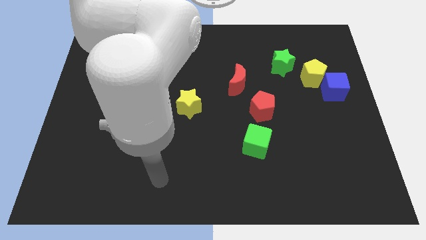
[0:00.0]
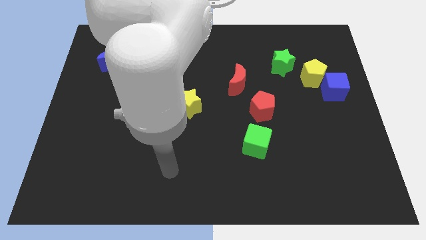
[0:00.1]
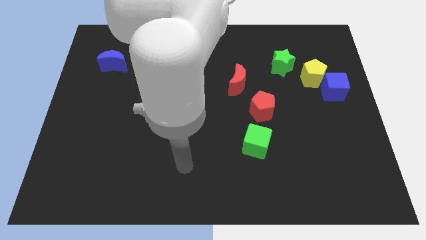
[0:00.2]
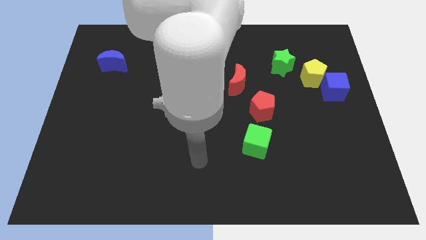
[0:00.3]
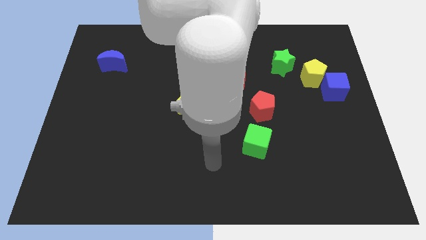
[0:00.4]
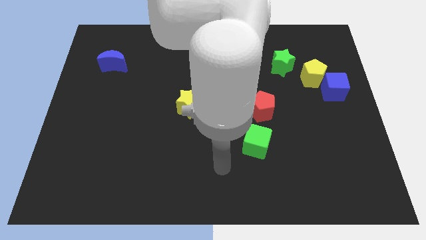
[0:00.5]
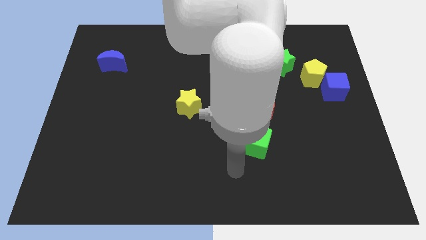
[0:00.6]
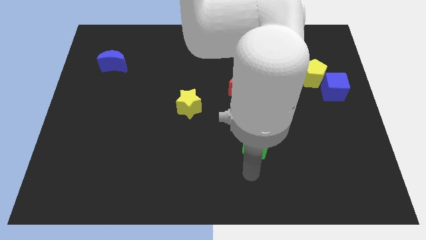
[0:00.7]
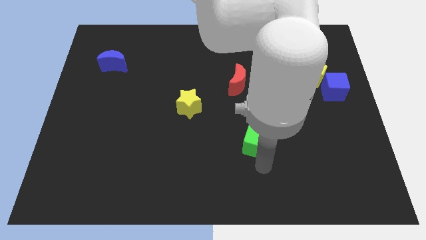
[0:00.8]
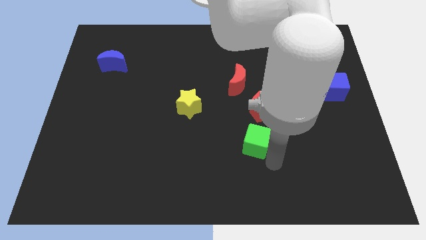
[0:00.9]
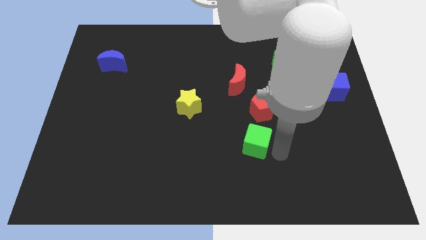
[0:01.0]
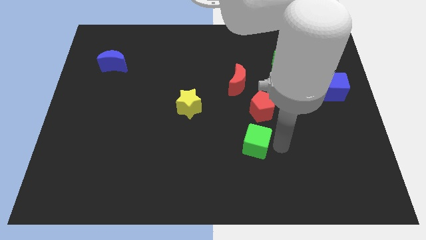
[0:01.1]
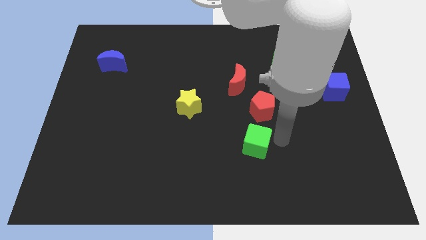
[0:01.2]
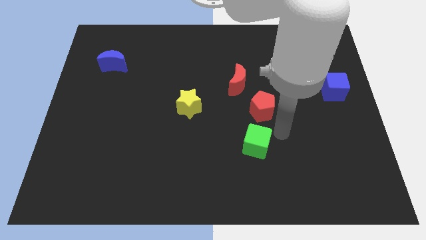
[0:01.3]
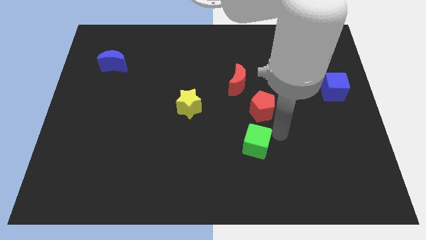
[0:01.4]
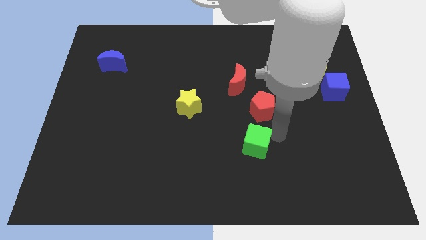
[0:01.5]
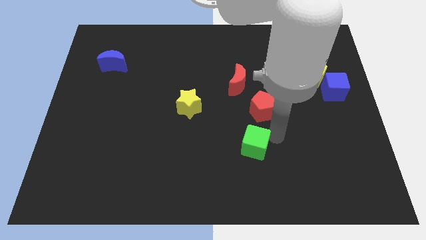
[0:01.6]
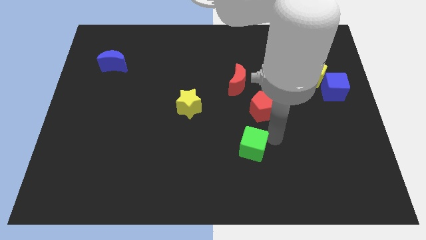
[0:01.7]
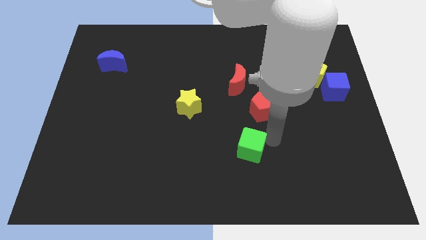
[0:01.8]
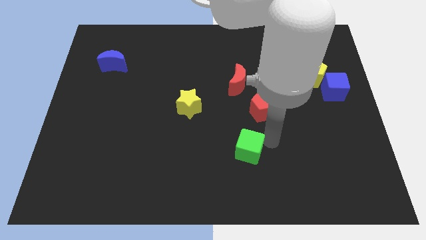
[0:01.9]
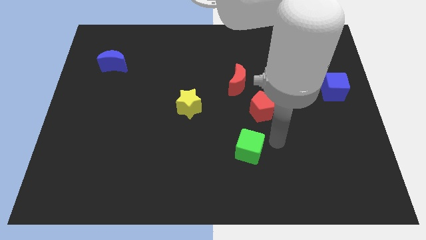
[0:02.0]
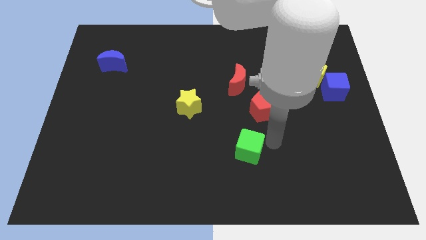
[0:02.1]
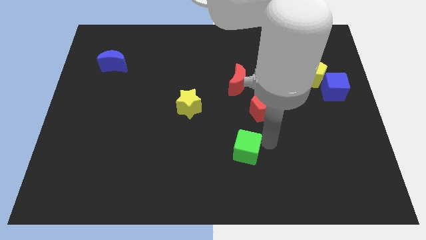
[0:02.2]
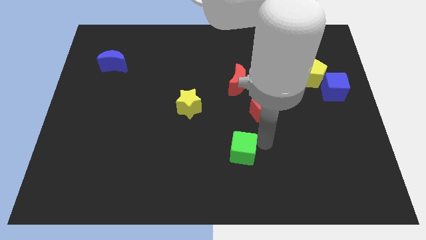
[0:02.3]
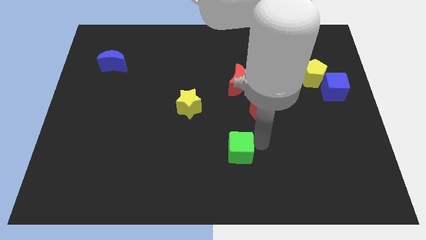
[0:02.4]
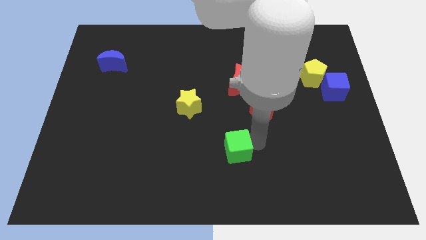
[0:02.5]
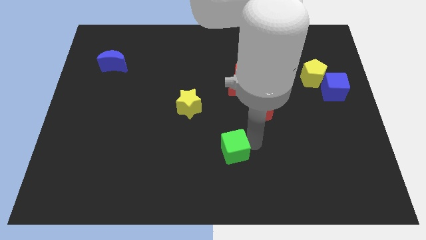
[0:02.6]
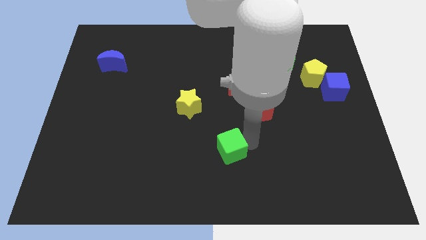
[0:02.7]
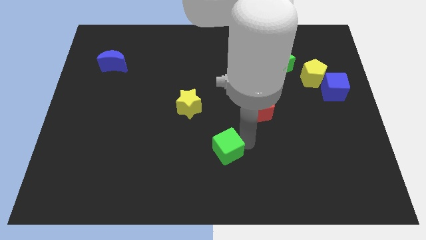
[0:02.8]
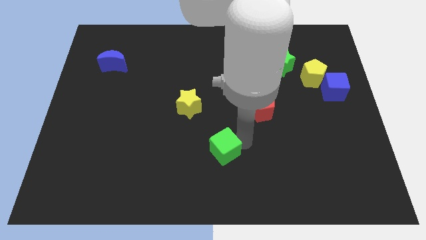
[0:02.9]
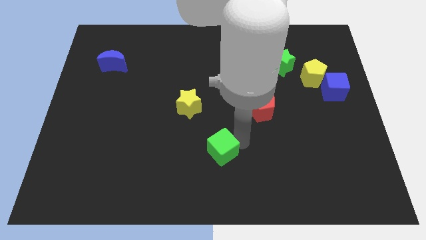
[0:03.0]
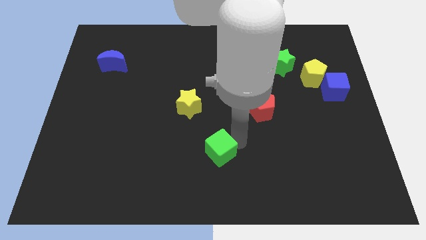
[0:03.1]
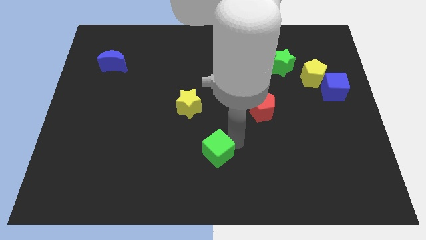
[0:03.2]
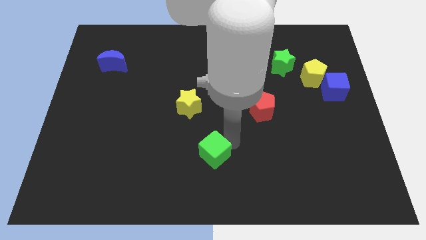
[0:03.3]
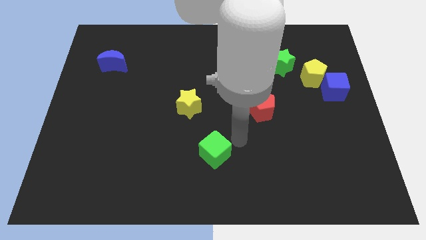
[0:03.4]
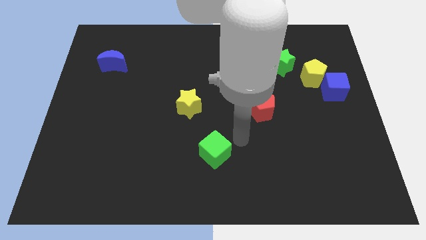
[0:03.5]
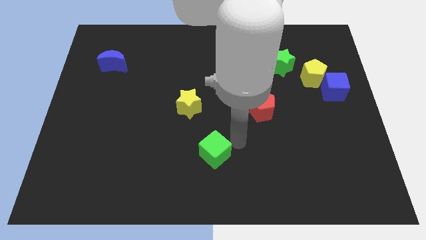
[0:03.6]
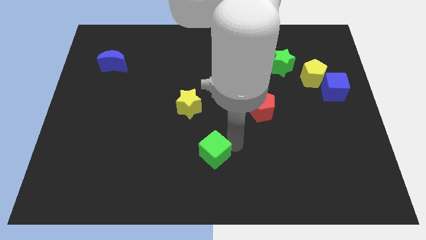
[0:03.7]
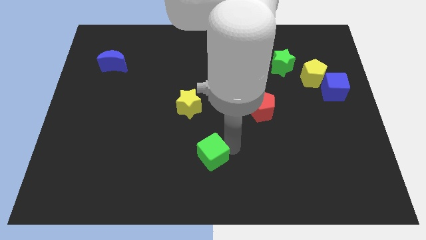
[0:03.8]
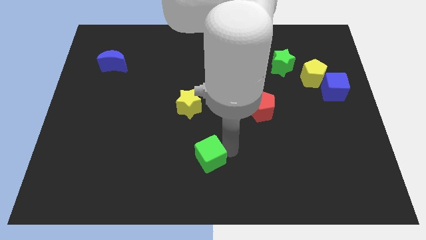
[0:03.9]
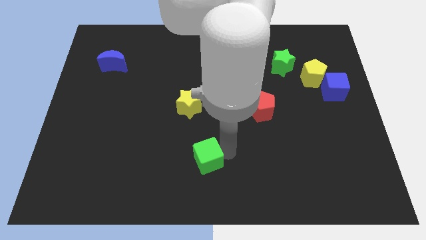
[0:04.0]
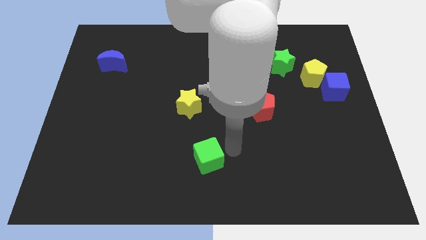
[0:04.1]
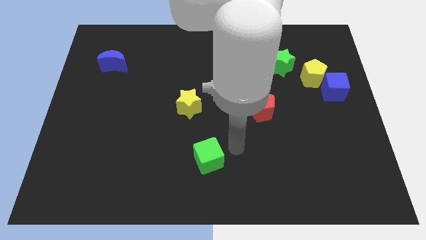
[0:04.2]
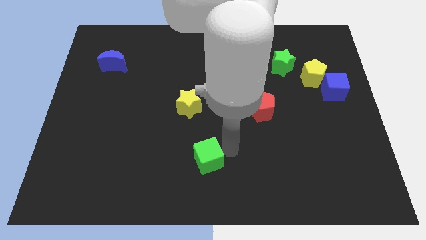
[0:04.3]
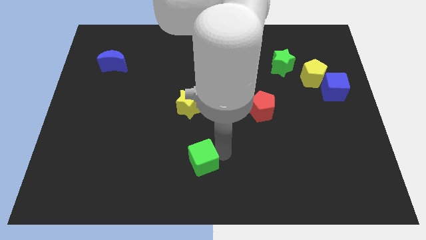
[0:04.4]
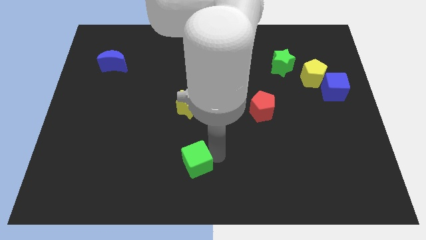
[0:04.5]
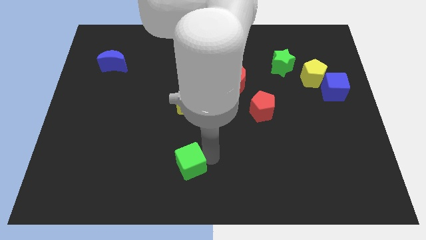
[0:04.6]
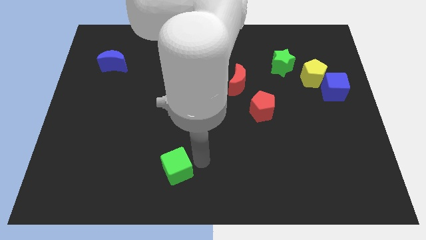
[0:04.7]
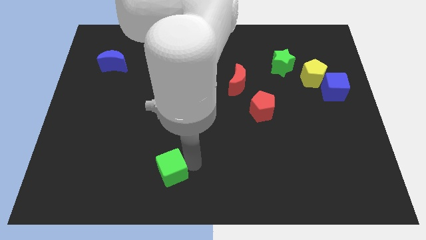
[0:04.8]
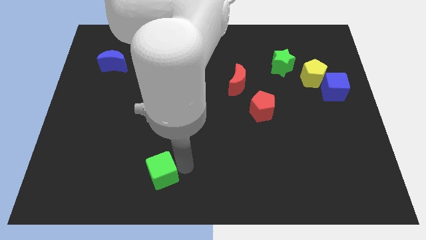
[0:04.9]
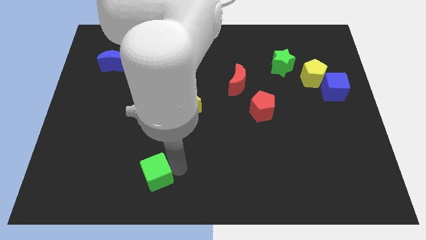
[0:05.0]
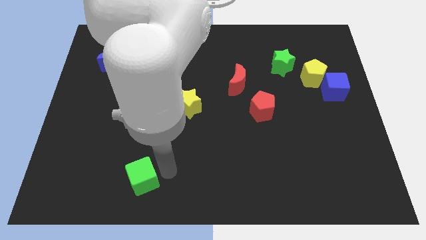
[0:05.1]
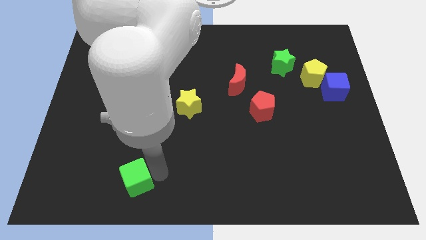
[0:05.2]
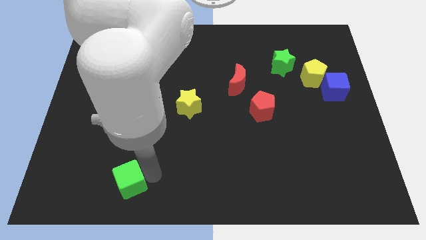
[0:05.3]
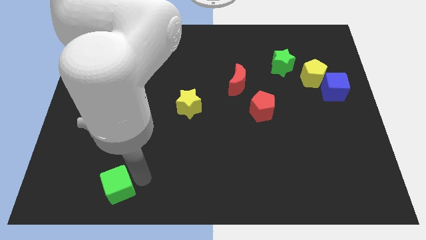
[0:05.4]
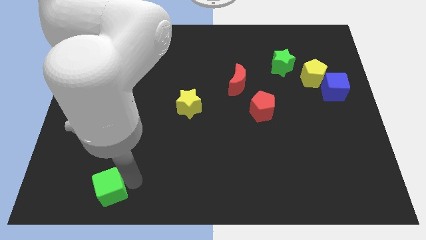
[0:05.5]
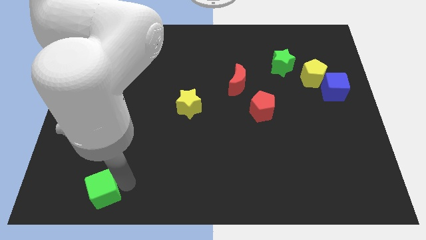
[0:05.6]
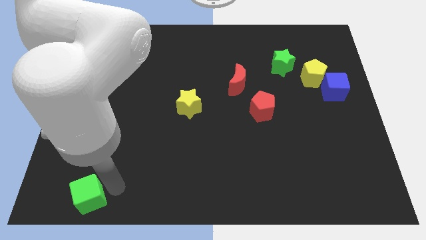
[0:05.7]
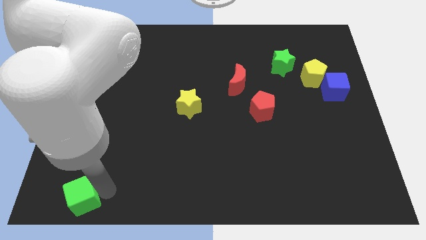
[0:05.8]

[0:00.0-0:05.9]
push the green cube to the bottom left corner
